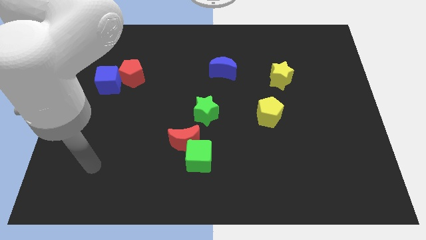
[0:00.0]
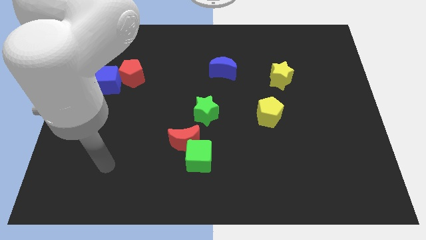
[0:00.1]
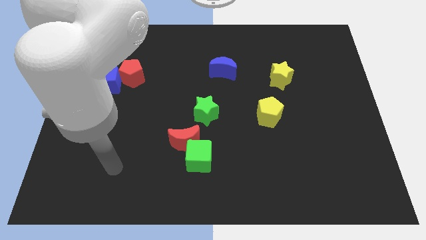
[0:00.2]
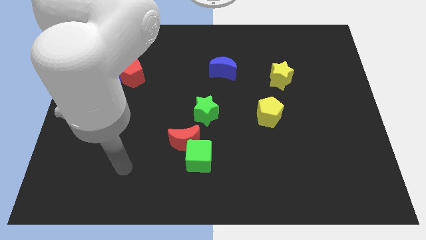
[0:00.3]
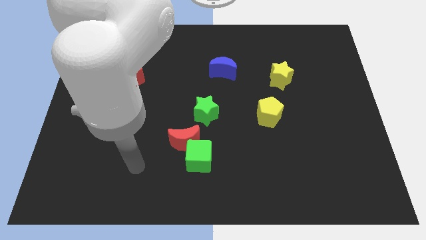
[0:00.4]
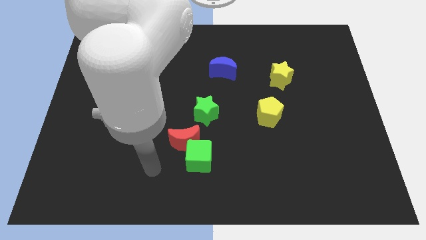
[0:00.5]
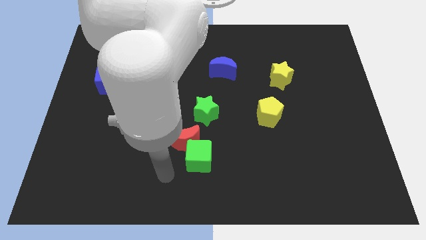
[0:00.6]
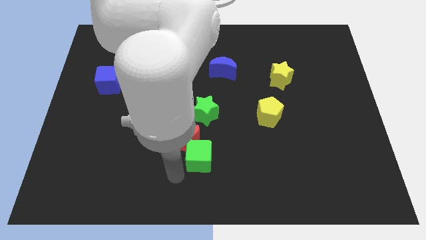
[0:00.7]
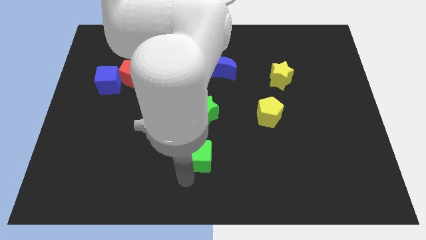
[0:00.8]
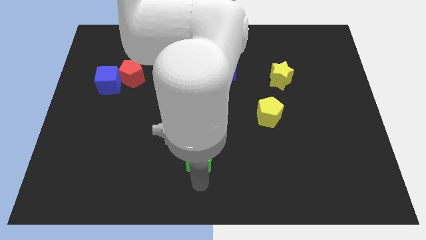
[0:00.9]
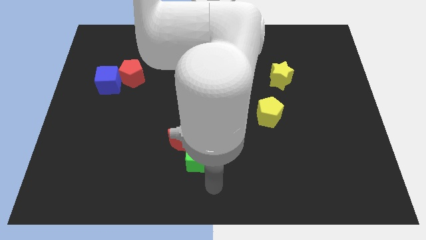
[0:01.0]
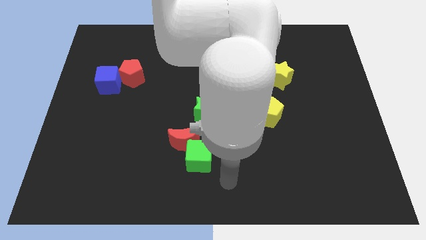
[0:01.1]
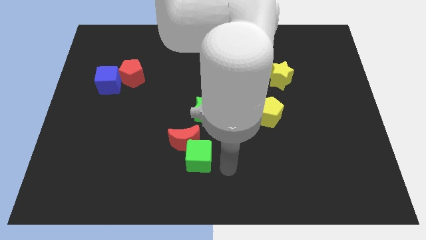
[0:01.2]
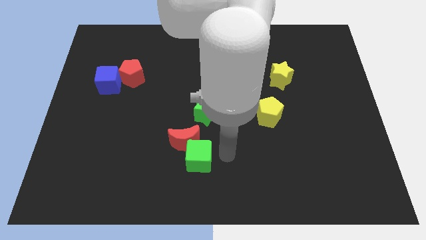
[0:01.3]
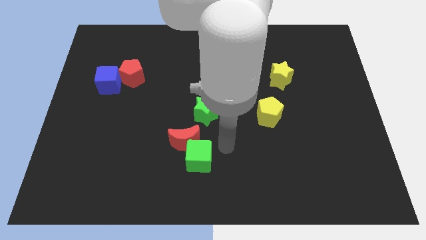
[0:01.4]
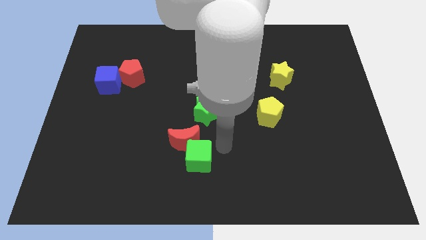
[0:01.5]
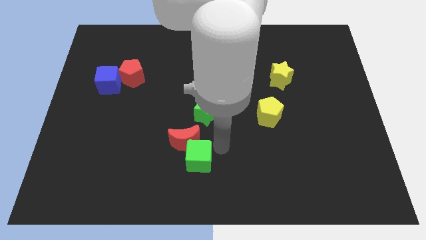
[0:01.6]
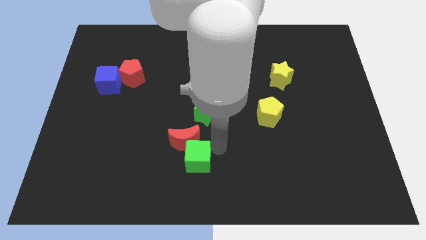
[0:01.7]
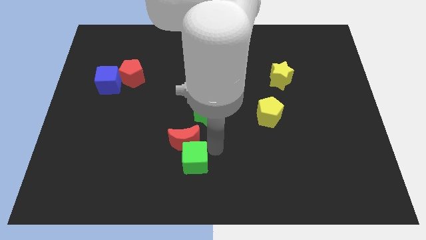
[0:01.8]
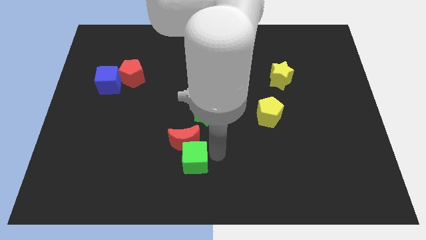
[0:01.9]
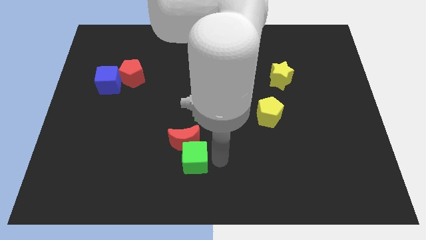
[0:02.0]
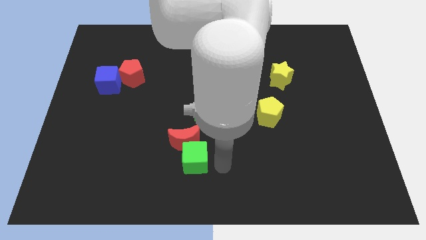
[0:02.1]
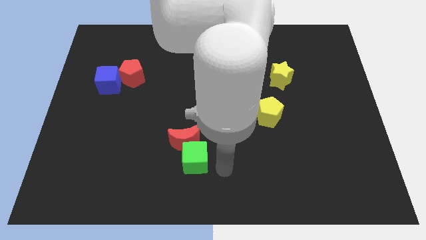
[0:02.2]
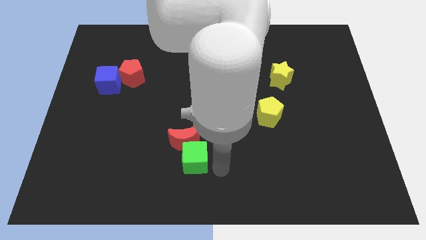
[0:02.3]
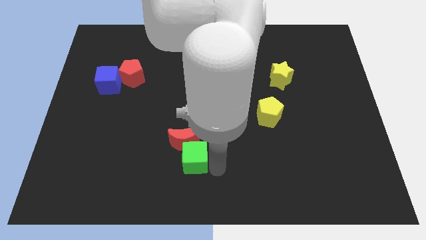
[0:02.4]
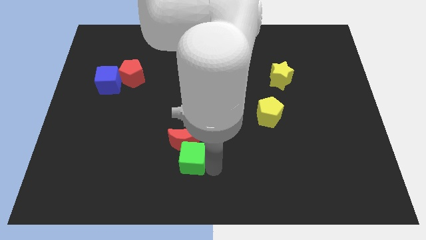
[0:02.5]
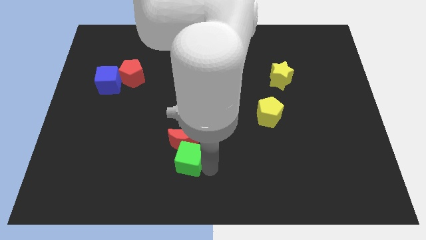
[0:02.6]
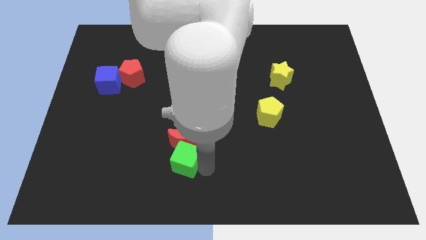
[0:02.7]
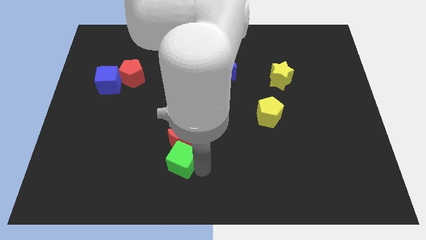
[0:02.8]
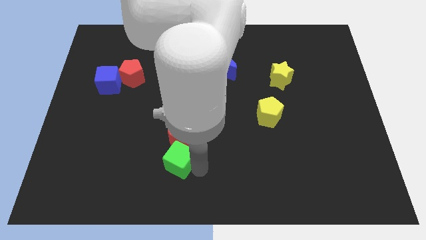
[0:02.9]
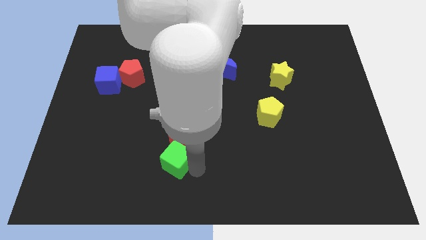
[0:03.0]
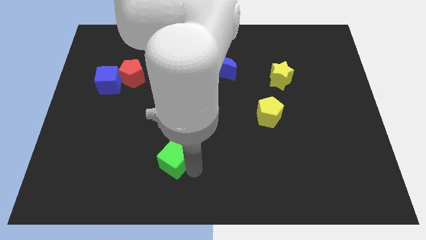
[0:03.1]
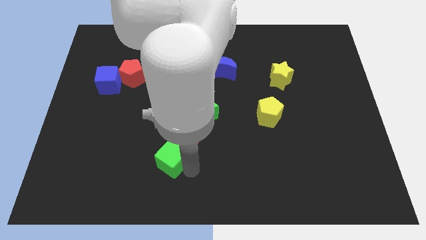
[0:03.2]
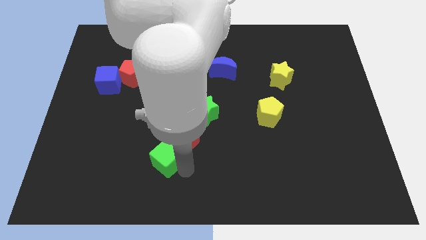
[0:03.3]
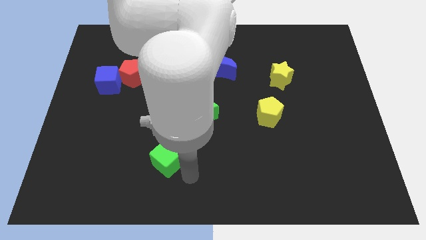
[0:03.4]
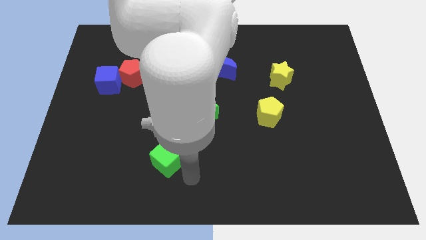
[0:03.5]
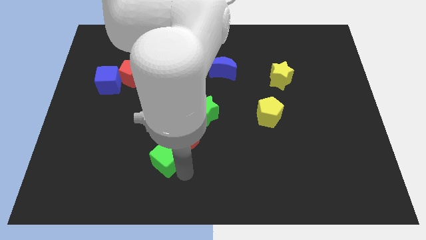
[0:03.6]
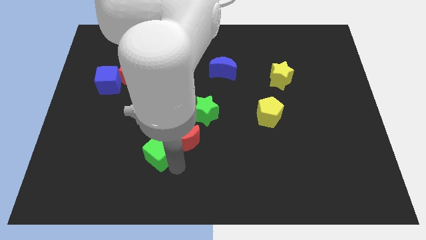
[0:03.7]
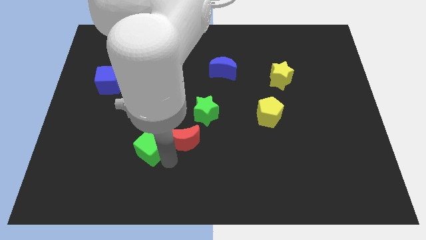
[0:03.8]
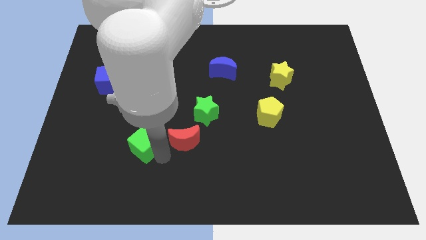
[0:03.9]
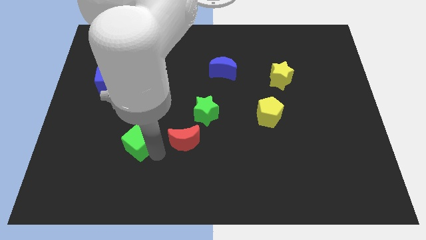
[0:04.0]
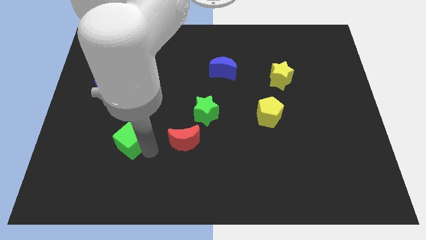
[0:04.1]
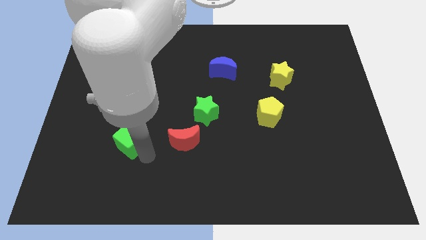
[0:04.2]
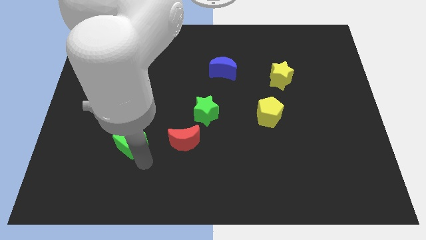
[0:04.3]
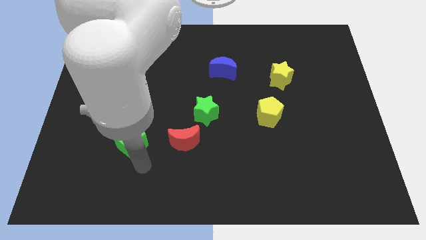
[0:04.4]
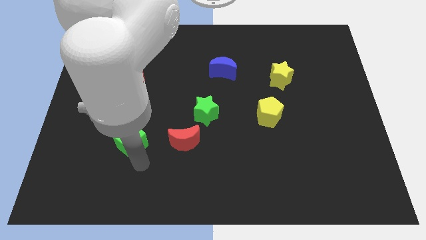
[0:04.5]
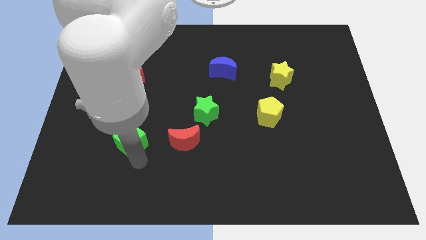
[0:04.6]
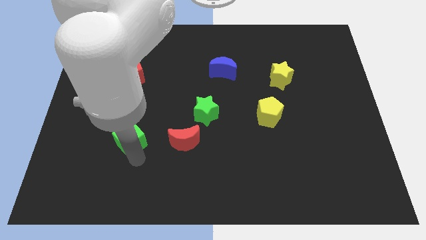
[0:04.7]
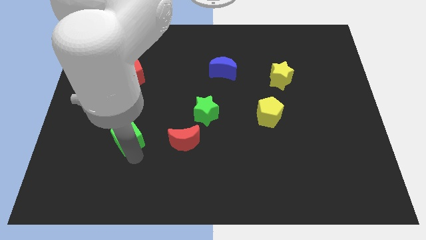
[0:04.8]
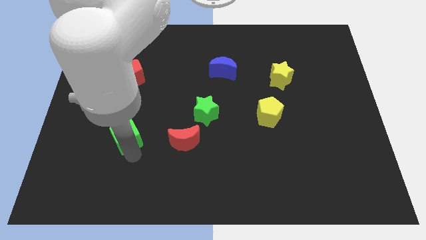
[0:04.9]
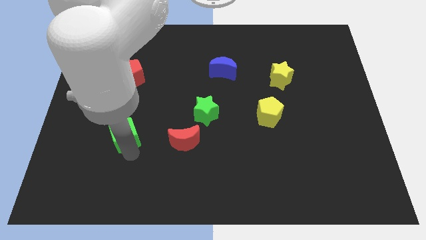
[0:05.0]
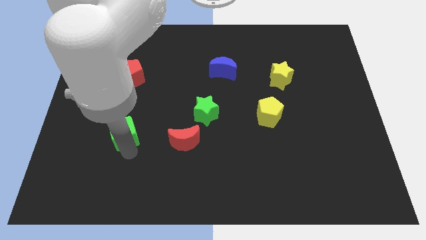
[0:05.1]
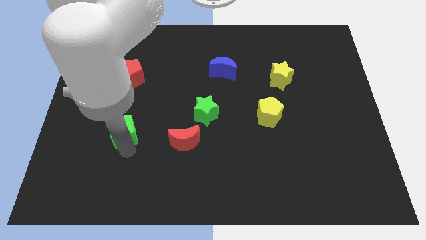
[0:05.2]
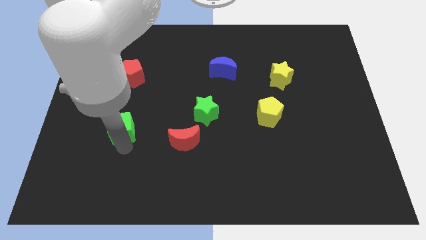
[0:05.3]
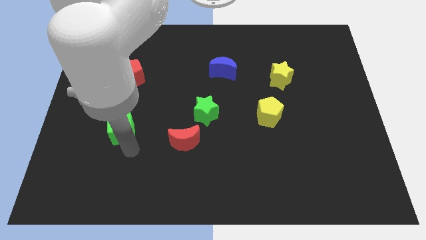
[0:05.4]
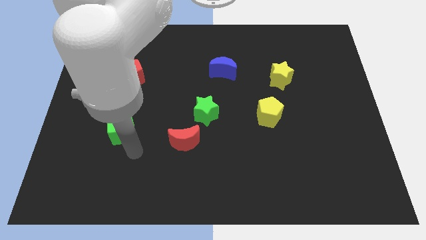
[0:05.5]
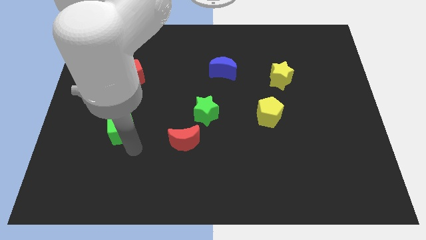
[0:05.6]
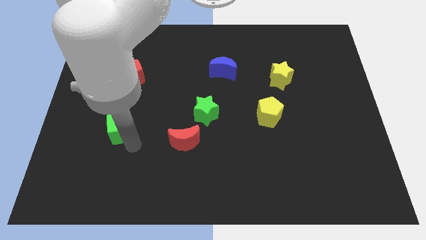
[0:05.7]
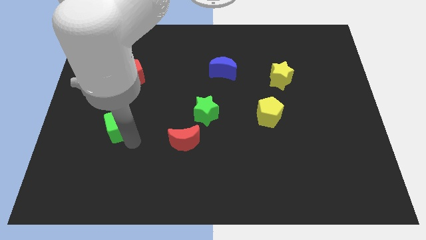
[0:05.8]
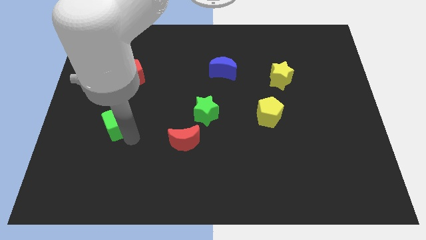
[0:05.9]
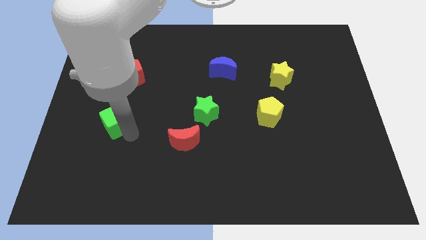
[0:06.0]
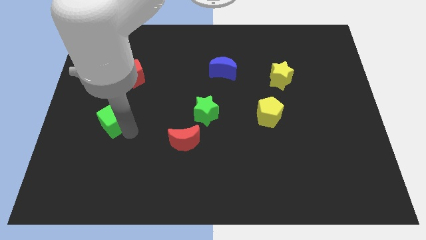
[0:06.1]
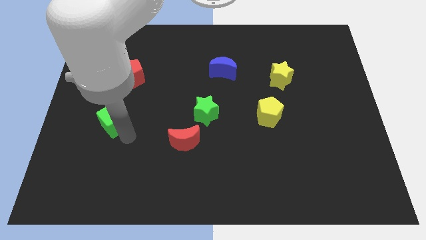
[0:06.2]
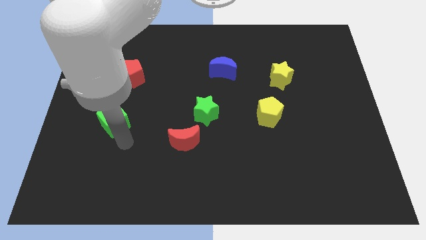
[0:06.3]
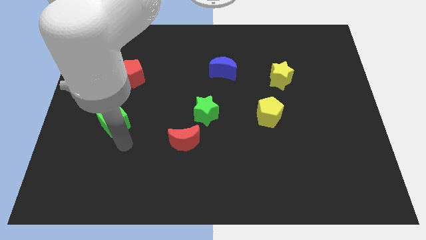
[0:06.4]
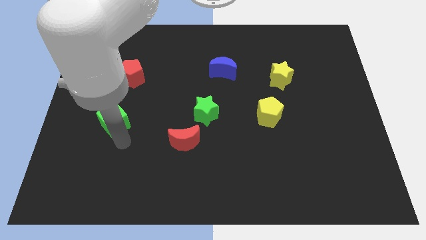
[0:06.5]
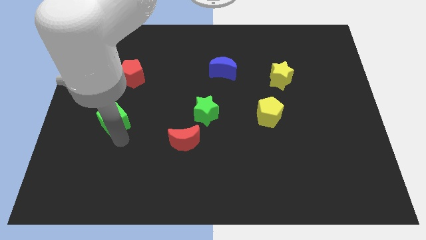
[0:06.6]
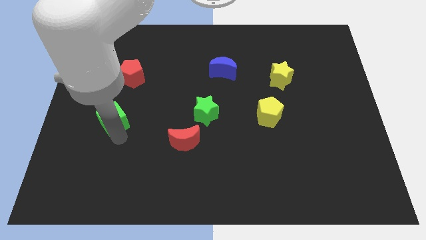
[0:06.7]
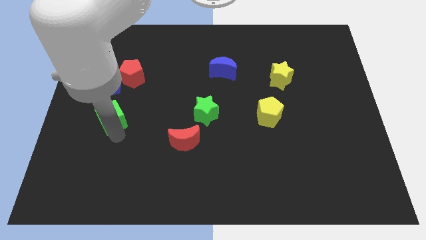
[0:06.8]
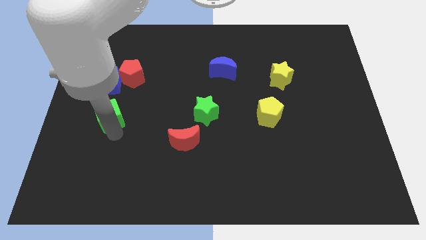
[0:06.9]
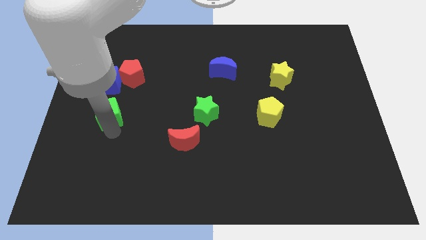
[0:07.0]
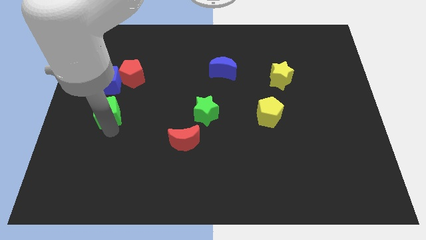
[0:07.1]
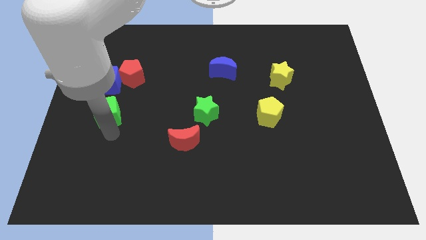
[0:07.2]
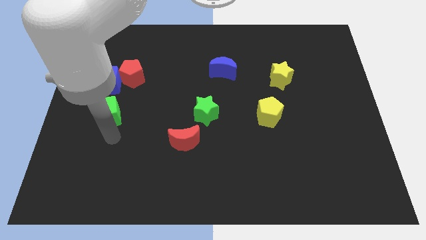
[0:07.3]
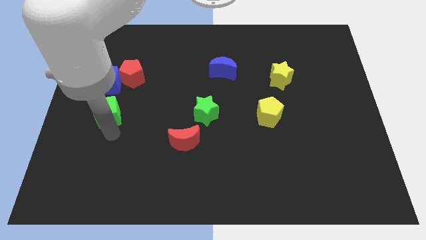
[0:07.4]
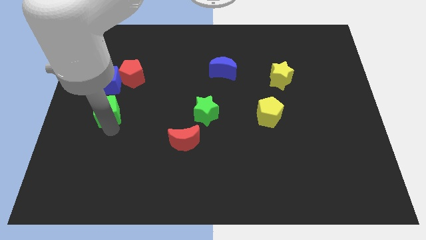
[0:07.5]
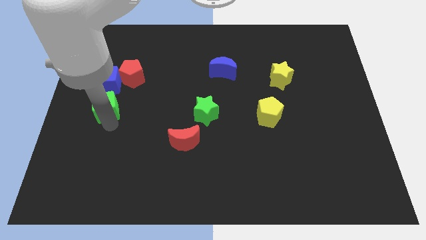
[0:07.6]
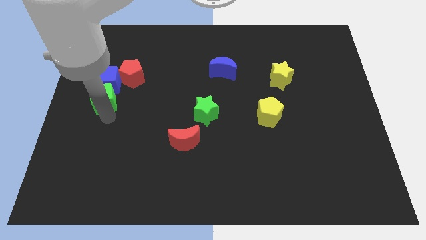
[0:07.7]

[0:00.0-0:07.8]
put the green cube close to the blue cube
